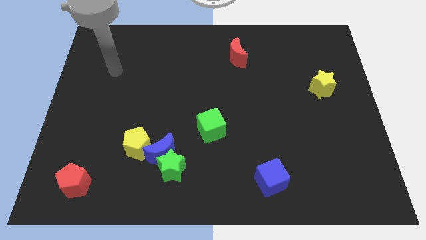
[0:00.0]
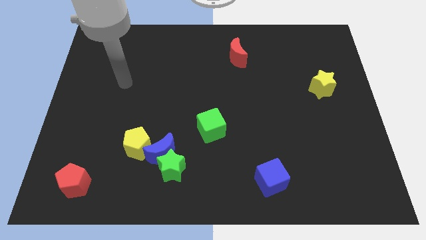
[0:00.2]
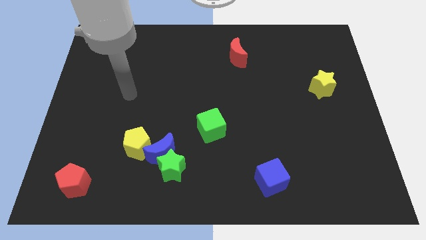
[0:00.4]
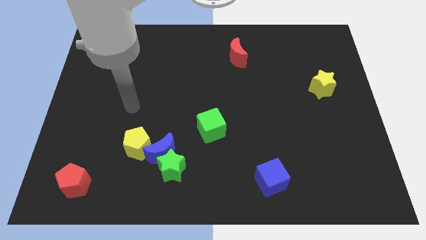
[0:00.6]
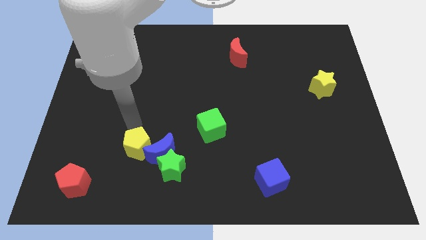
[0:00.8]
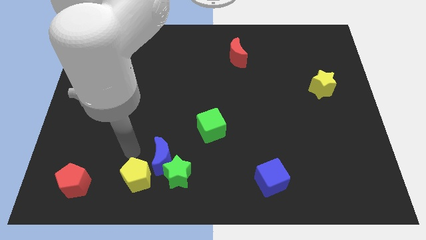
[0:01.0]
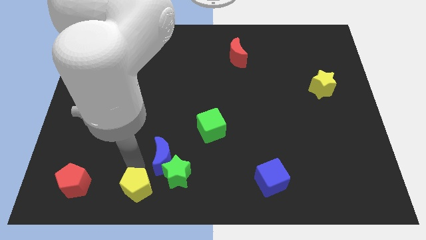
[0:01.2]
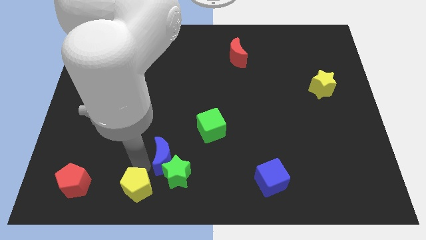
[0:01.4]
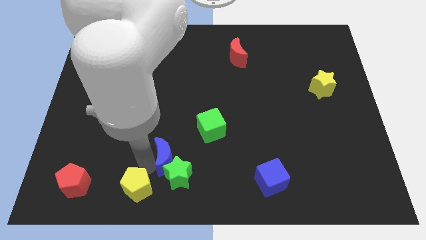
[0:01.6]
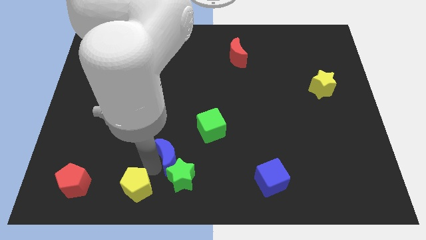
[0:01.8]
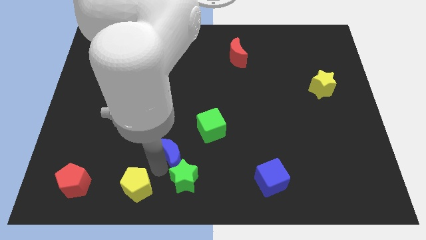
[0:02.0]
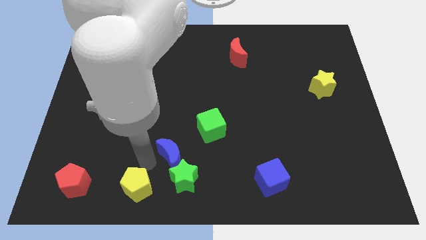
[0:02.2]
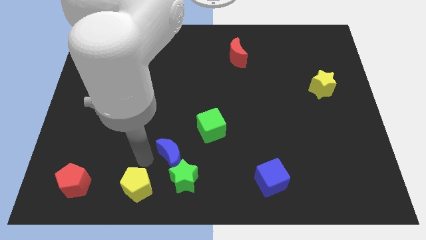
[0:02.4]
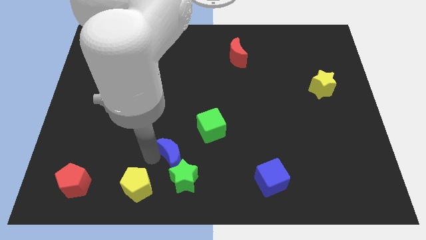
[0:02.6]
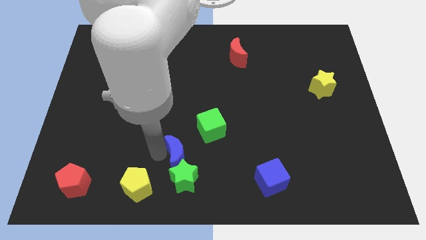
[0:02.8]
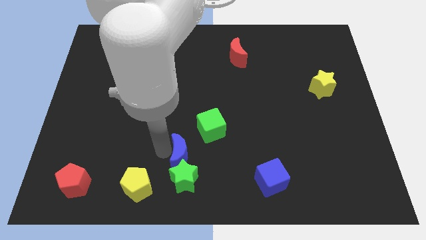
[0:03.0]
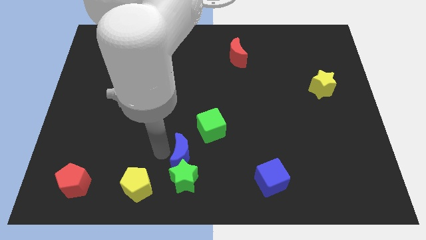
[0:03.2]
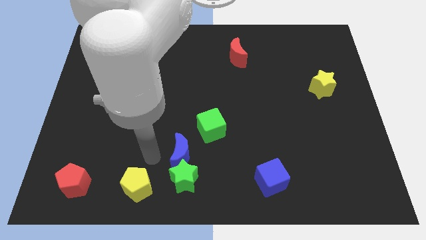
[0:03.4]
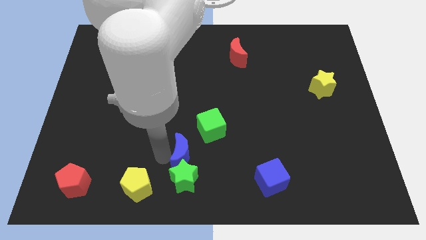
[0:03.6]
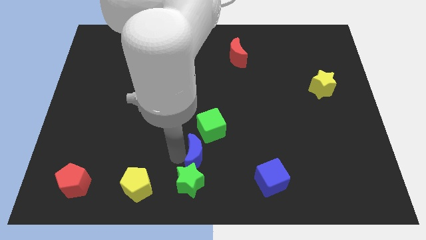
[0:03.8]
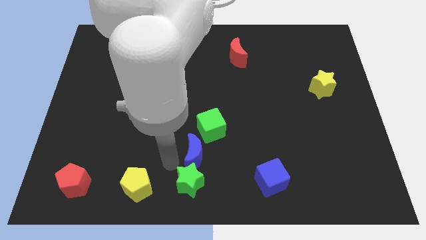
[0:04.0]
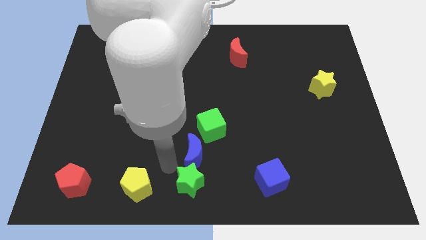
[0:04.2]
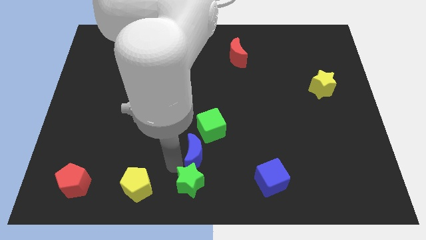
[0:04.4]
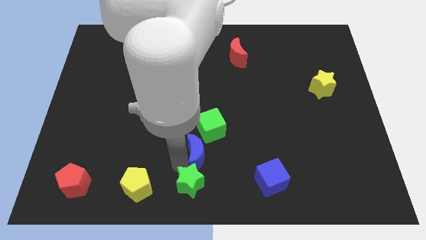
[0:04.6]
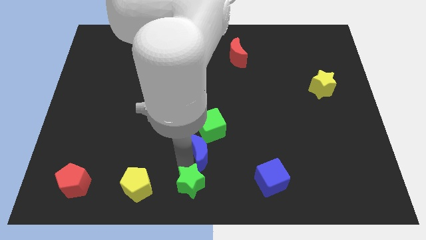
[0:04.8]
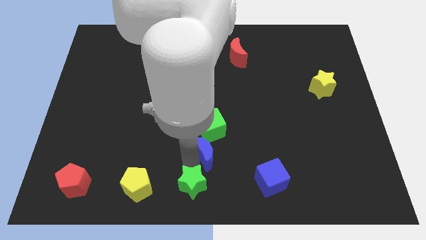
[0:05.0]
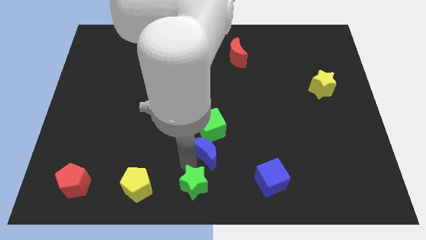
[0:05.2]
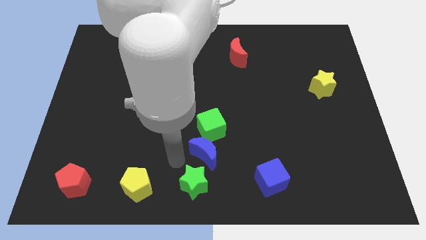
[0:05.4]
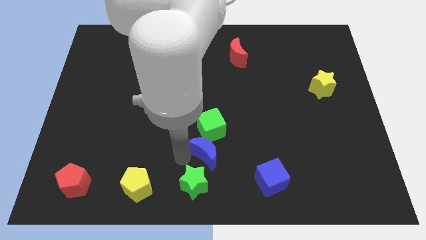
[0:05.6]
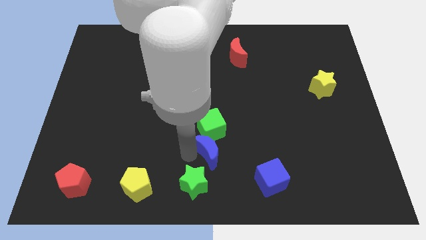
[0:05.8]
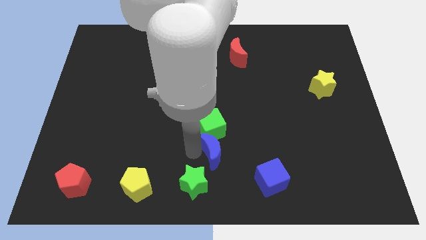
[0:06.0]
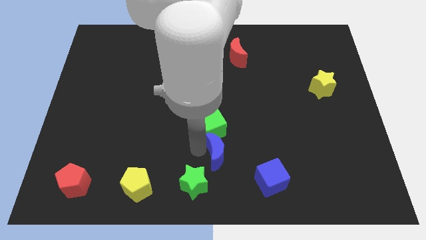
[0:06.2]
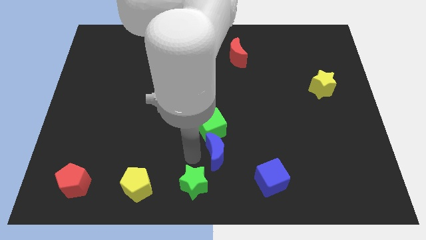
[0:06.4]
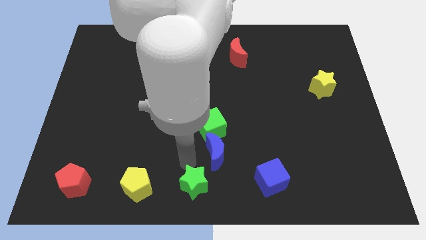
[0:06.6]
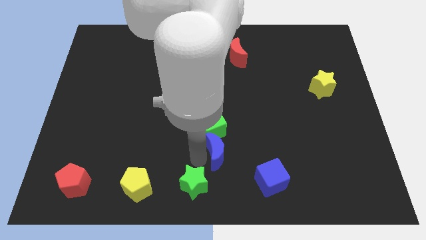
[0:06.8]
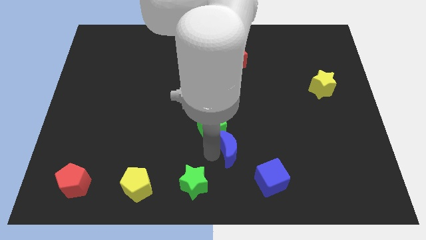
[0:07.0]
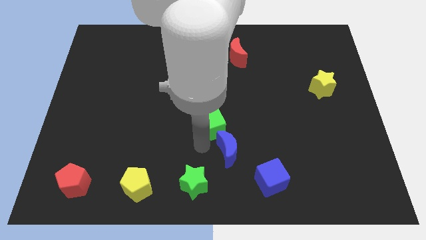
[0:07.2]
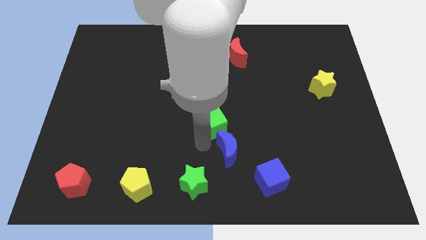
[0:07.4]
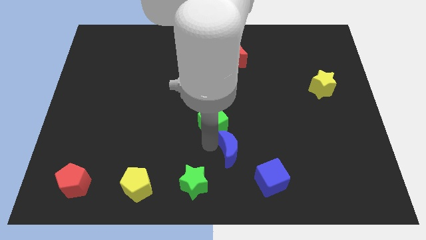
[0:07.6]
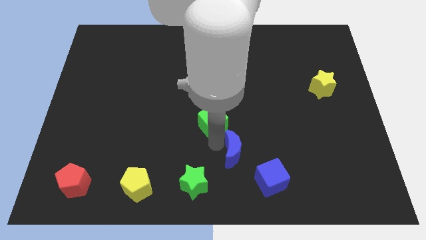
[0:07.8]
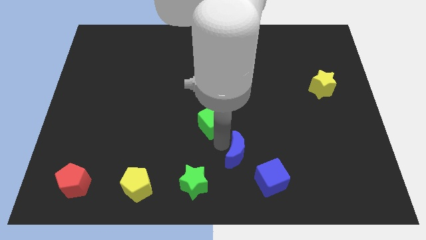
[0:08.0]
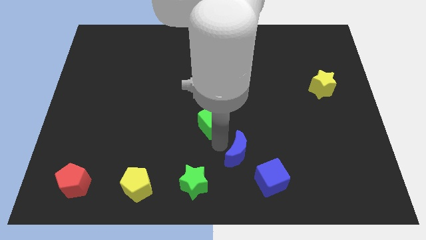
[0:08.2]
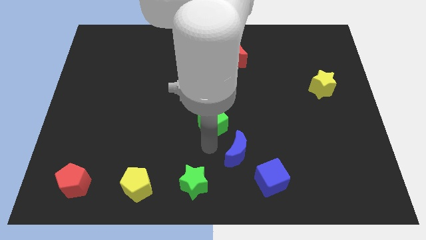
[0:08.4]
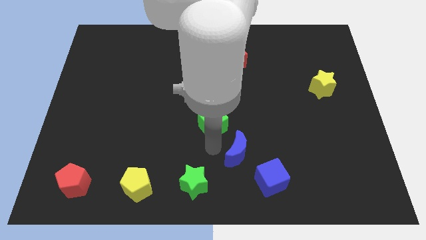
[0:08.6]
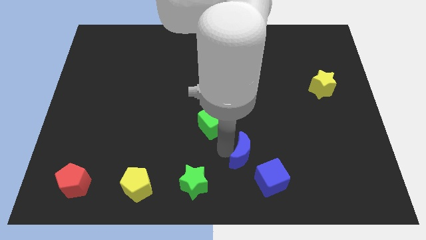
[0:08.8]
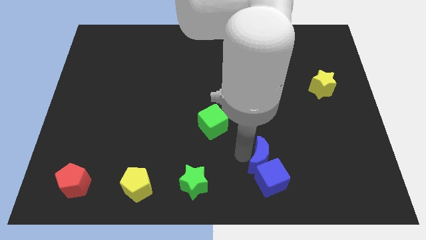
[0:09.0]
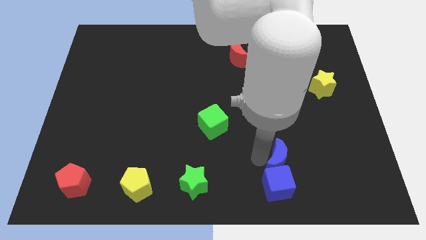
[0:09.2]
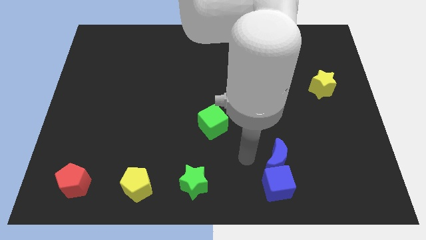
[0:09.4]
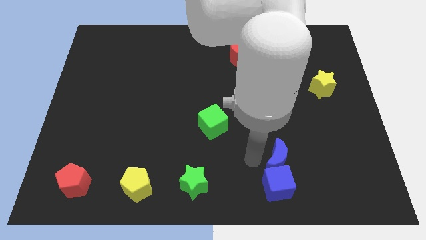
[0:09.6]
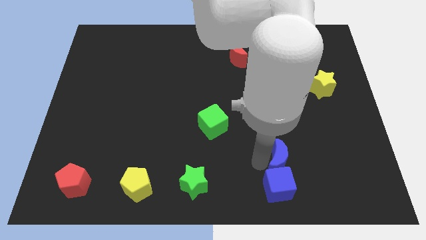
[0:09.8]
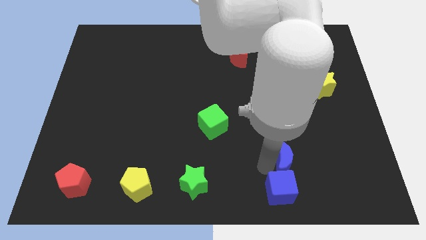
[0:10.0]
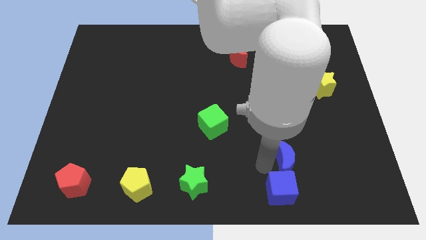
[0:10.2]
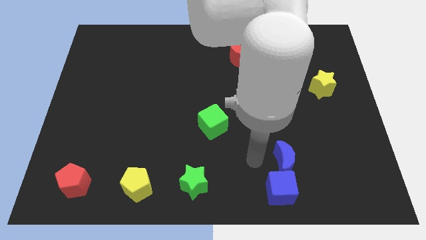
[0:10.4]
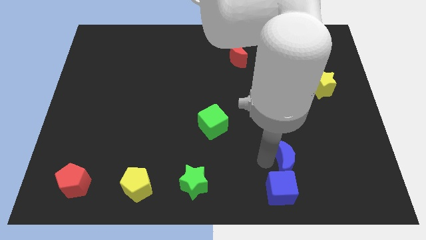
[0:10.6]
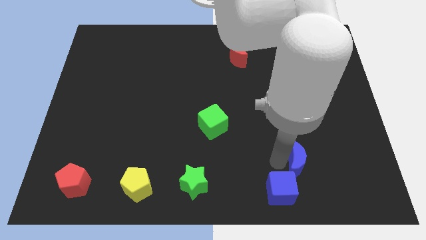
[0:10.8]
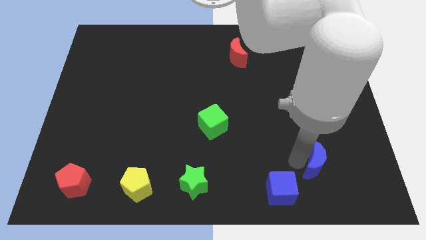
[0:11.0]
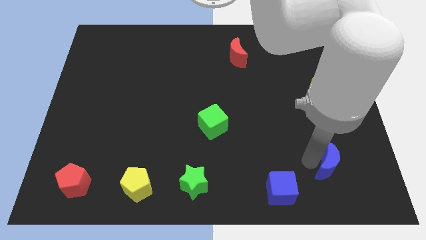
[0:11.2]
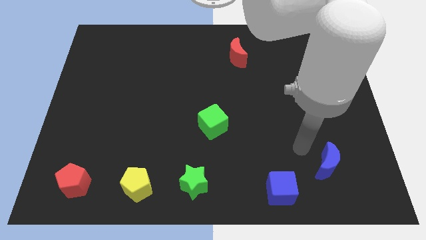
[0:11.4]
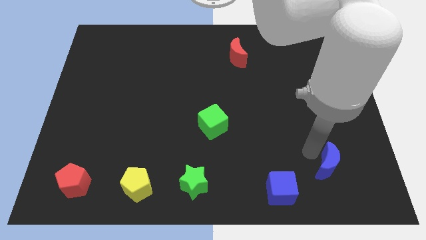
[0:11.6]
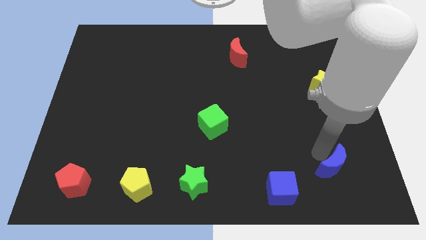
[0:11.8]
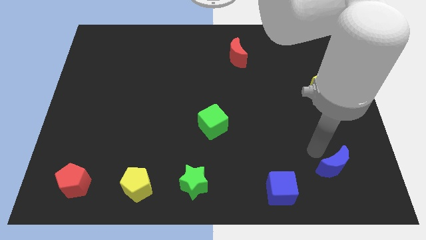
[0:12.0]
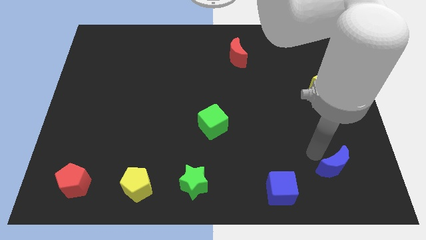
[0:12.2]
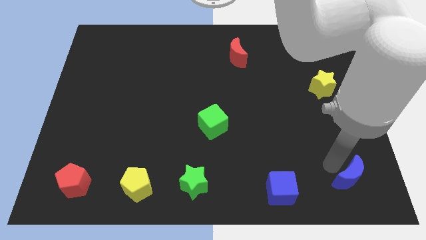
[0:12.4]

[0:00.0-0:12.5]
move the blue moon to the bottom right
